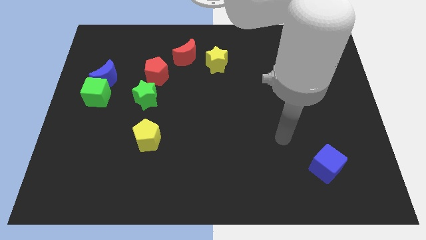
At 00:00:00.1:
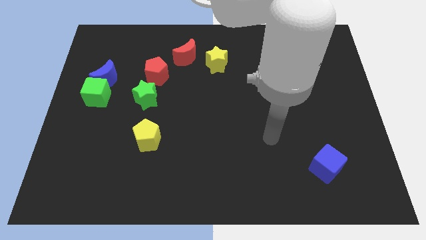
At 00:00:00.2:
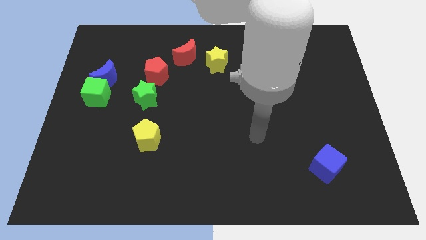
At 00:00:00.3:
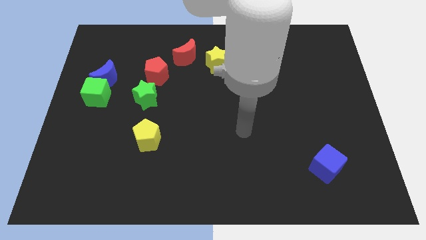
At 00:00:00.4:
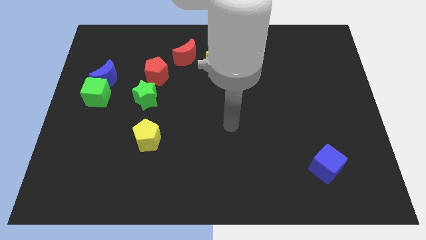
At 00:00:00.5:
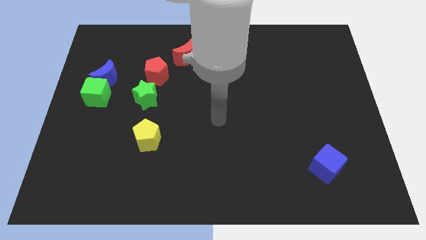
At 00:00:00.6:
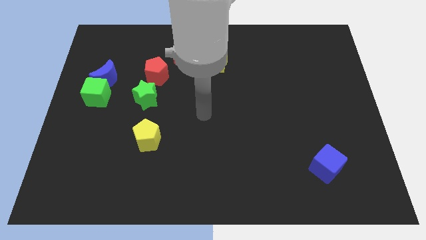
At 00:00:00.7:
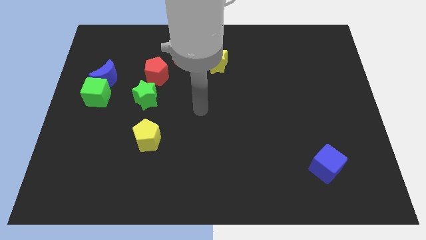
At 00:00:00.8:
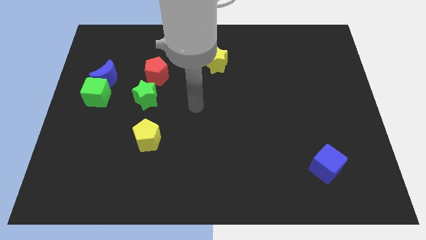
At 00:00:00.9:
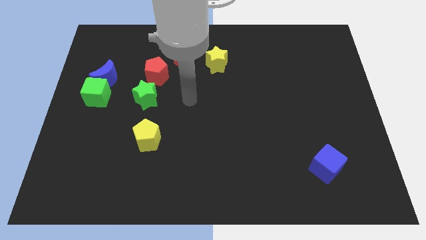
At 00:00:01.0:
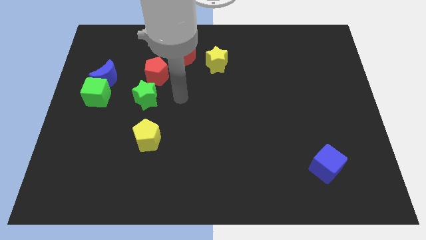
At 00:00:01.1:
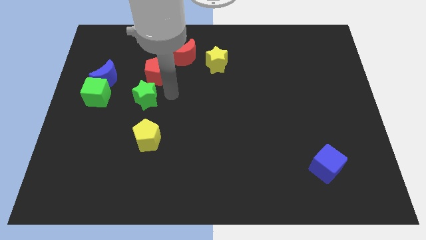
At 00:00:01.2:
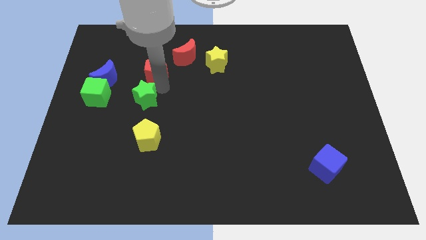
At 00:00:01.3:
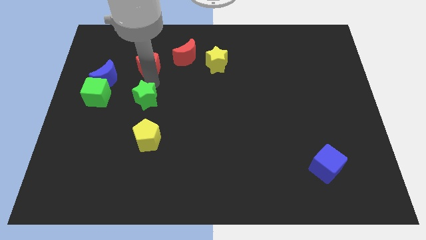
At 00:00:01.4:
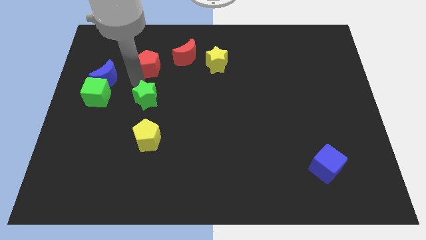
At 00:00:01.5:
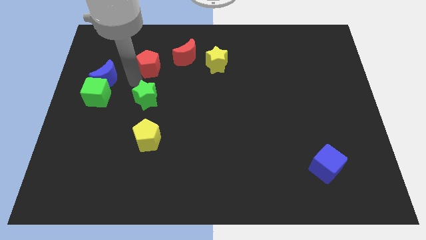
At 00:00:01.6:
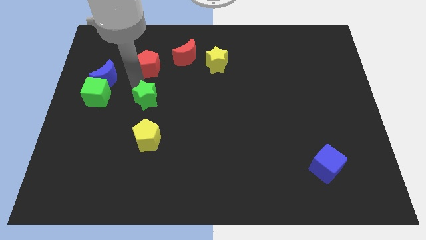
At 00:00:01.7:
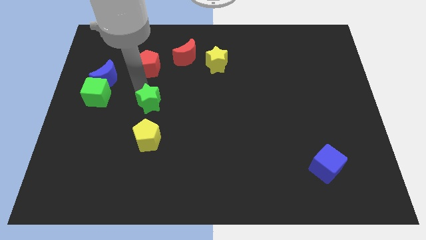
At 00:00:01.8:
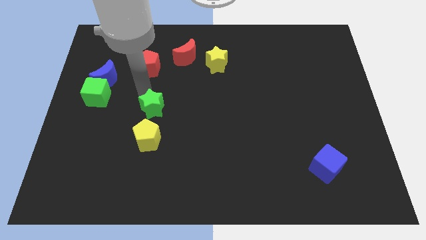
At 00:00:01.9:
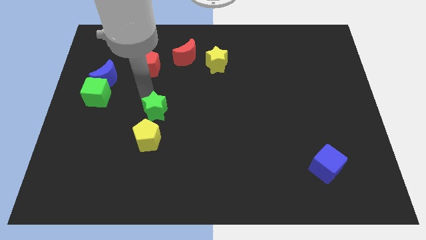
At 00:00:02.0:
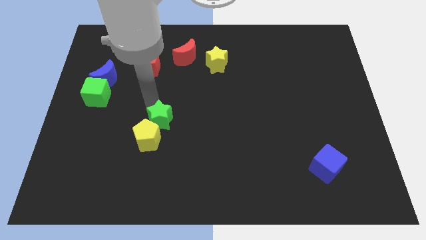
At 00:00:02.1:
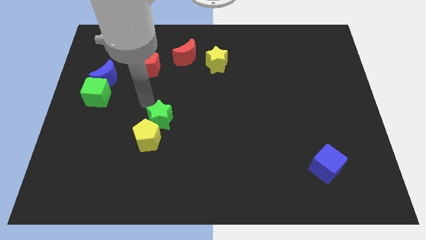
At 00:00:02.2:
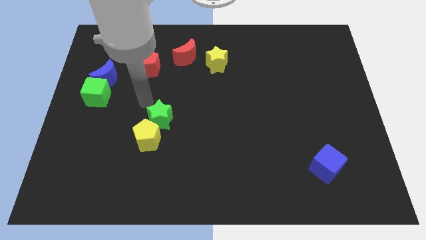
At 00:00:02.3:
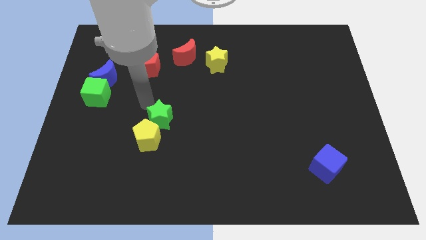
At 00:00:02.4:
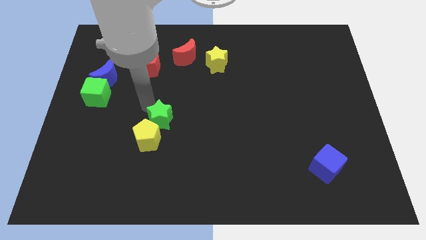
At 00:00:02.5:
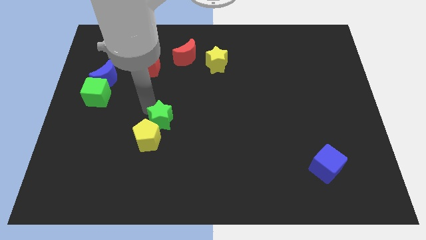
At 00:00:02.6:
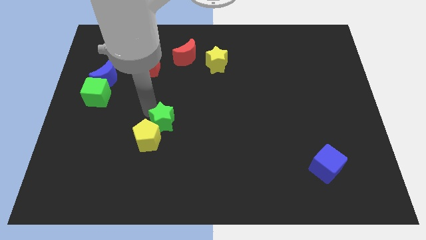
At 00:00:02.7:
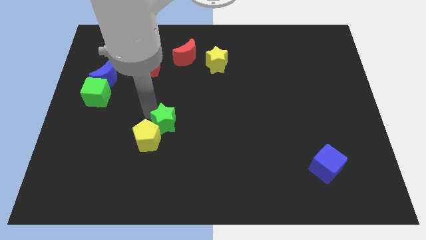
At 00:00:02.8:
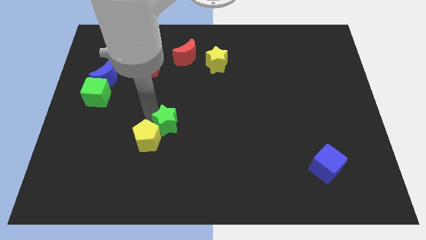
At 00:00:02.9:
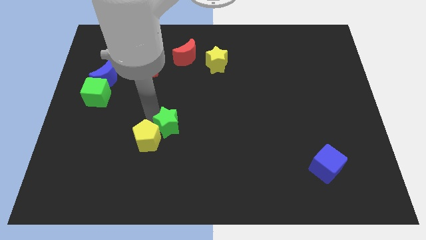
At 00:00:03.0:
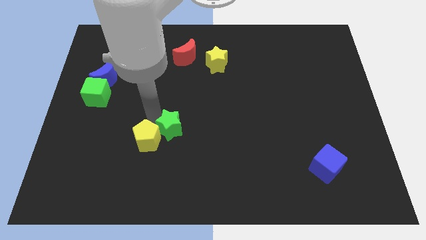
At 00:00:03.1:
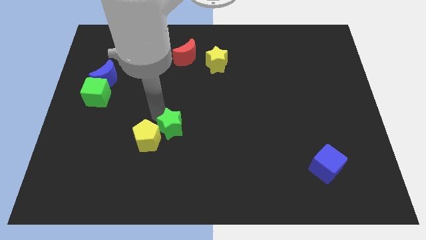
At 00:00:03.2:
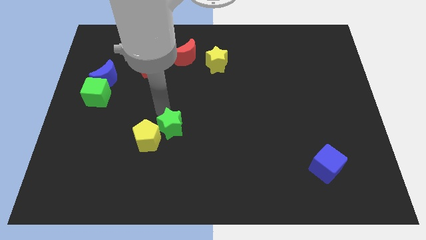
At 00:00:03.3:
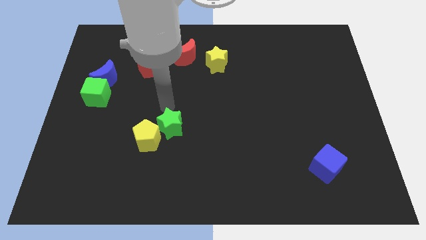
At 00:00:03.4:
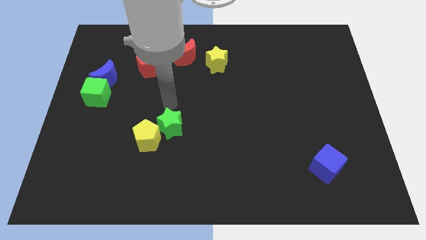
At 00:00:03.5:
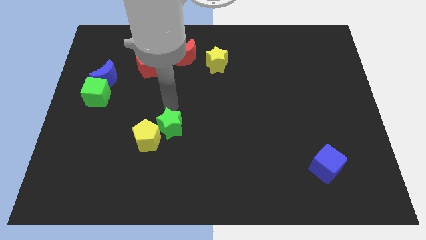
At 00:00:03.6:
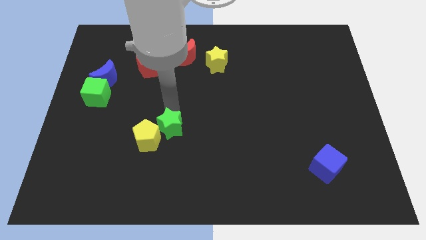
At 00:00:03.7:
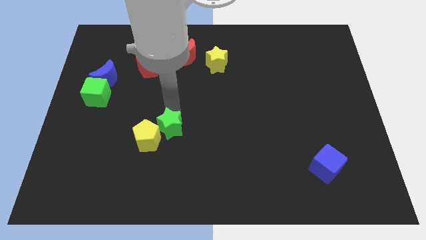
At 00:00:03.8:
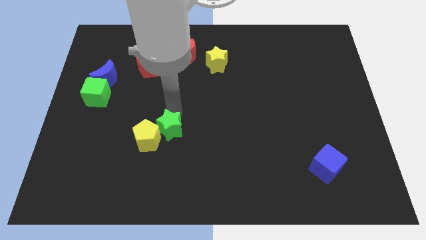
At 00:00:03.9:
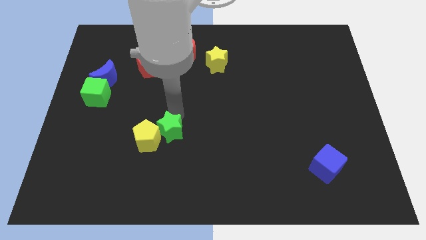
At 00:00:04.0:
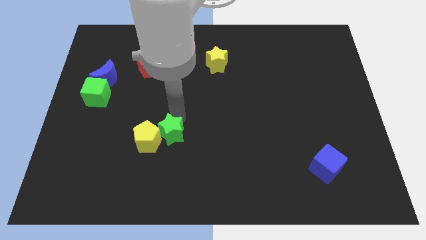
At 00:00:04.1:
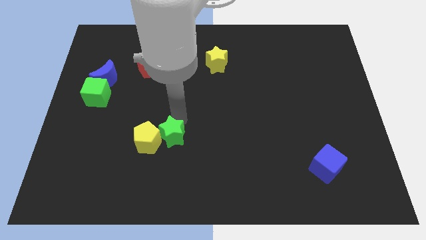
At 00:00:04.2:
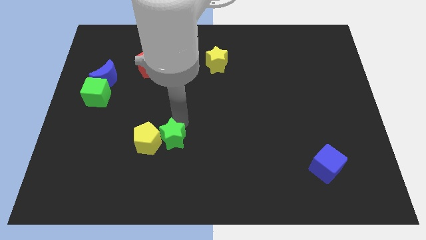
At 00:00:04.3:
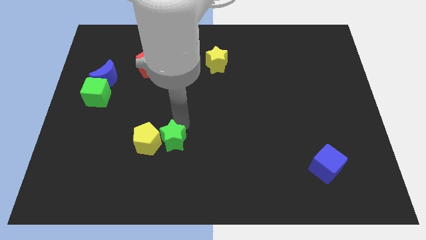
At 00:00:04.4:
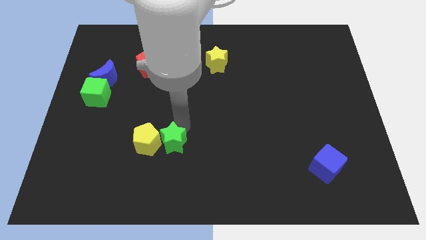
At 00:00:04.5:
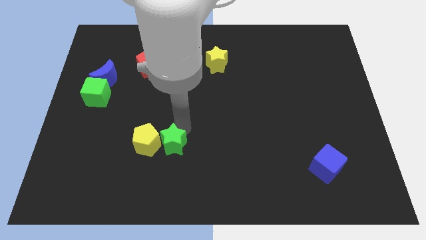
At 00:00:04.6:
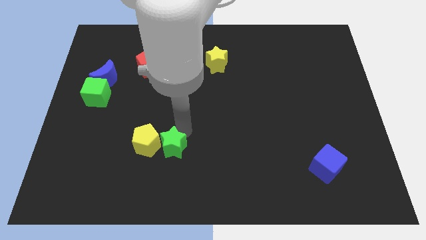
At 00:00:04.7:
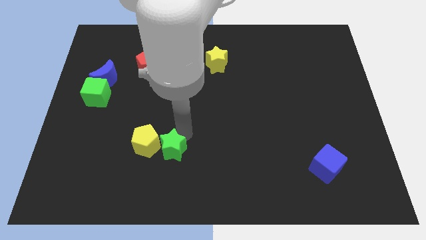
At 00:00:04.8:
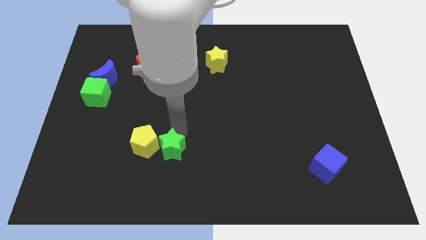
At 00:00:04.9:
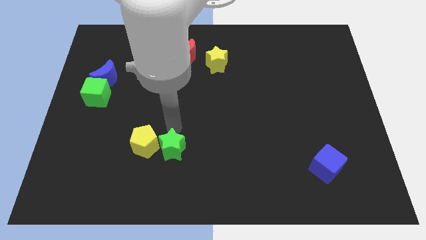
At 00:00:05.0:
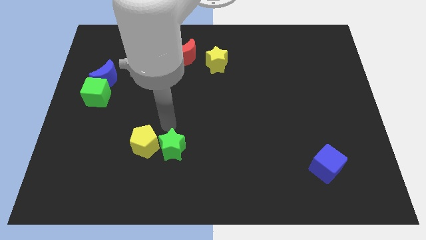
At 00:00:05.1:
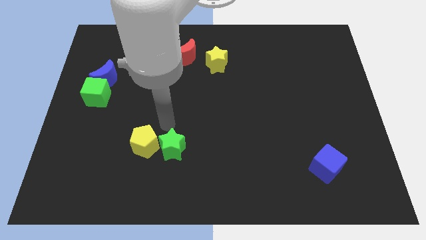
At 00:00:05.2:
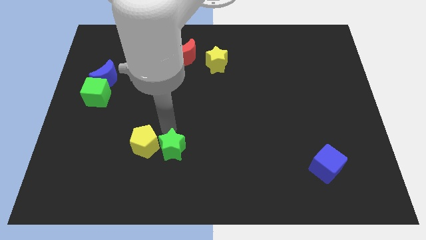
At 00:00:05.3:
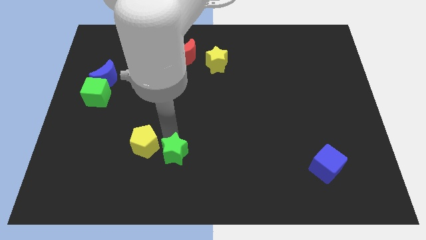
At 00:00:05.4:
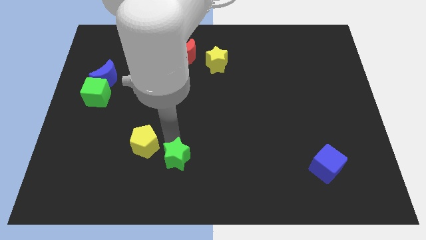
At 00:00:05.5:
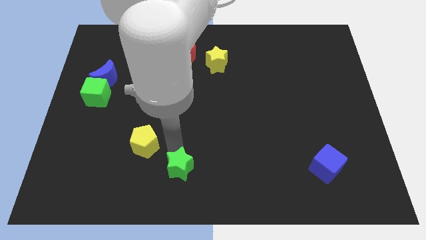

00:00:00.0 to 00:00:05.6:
put the green star to the bottom side

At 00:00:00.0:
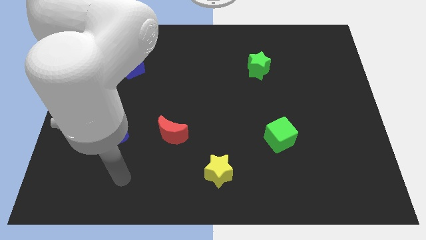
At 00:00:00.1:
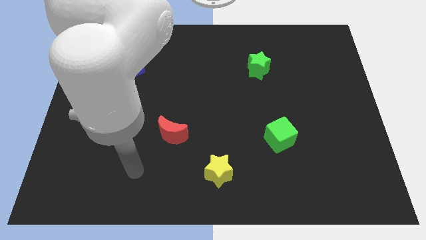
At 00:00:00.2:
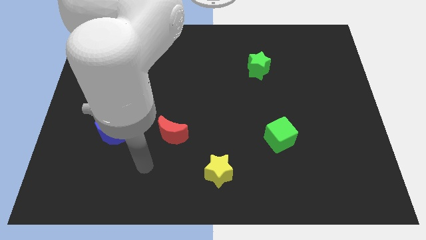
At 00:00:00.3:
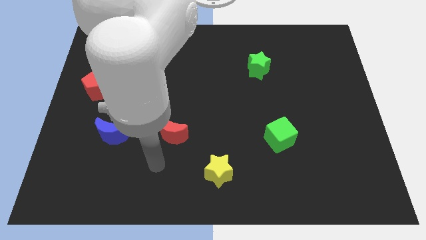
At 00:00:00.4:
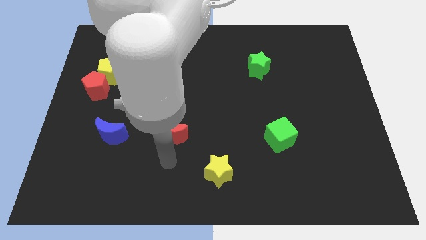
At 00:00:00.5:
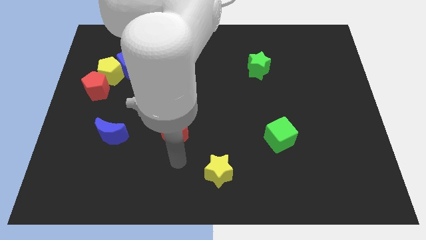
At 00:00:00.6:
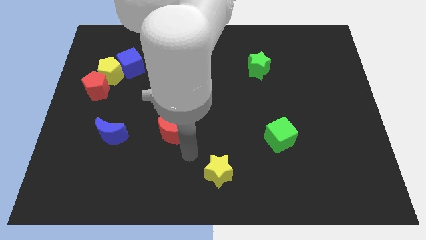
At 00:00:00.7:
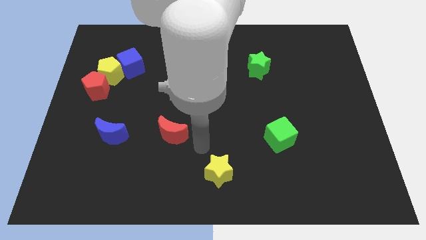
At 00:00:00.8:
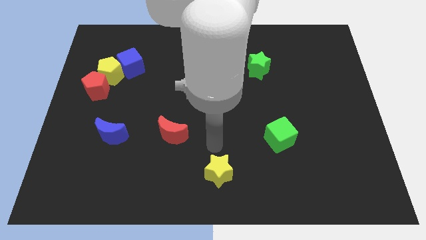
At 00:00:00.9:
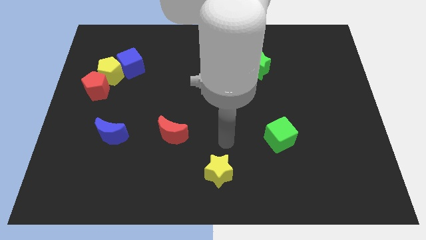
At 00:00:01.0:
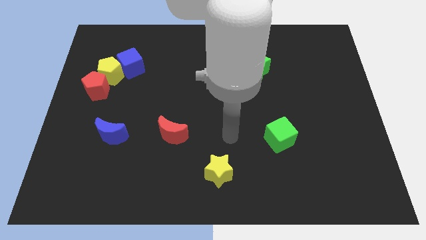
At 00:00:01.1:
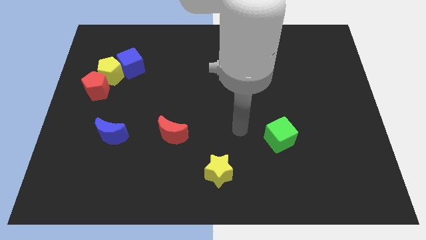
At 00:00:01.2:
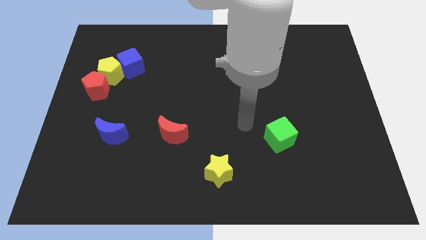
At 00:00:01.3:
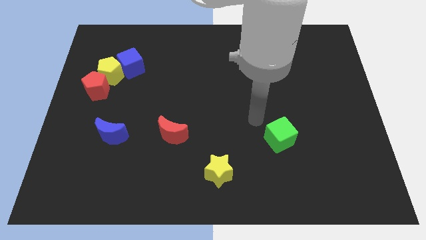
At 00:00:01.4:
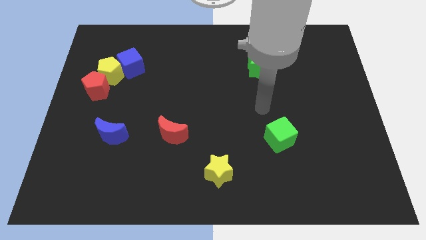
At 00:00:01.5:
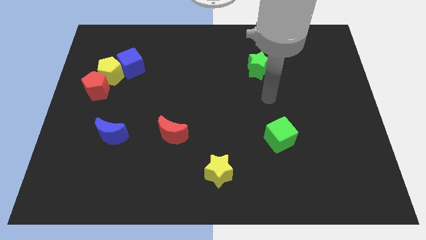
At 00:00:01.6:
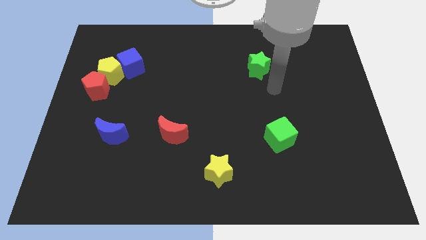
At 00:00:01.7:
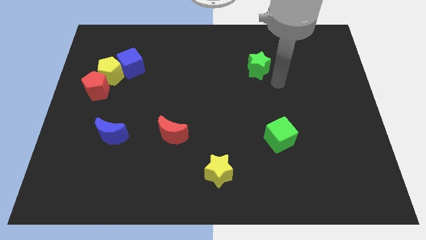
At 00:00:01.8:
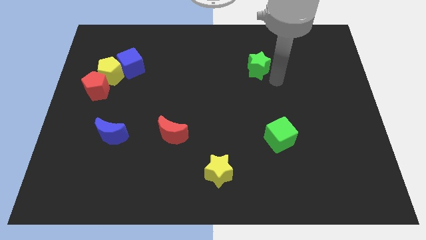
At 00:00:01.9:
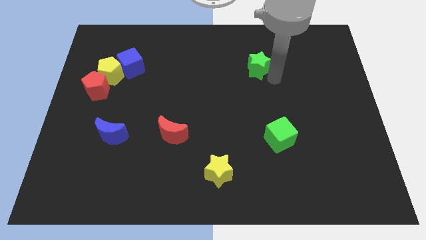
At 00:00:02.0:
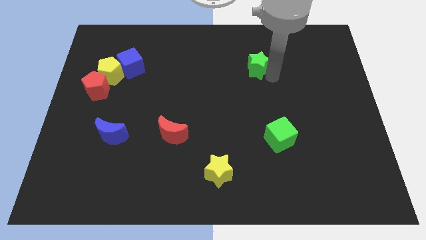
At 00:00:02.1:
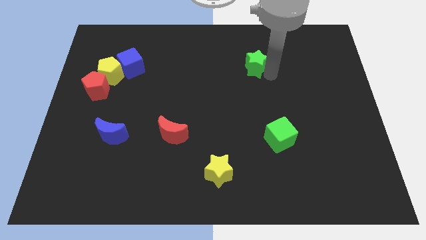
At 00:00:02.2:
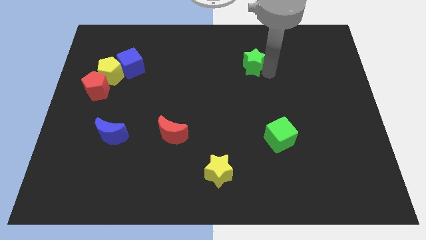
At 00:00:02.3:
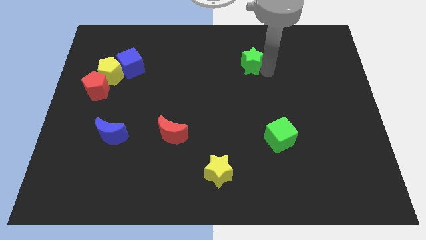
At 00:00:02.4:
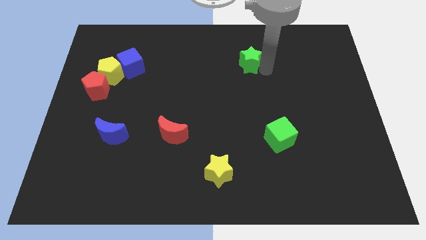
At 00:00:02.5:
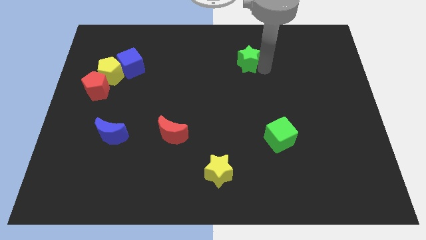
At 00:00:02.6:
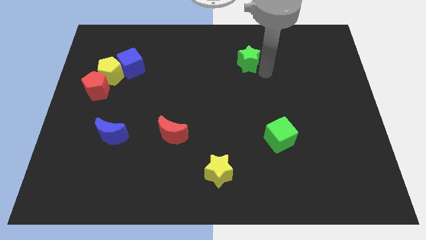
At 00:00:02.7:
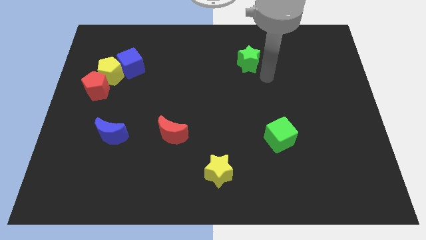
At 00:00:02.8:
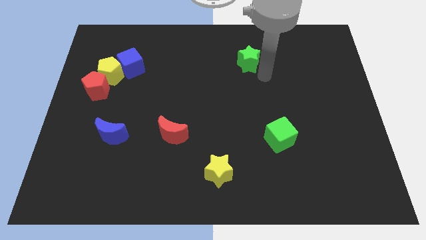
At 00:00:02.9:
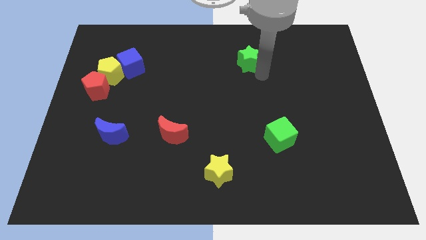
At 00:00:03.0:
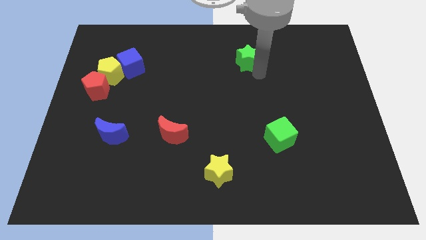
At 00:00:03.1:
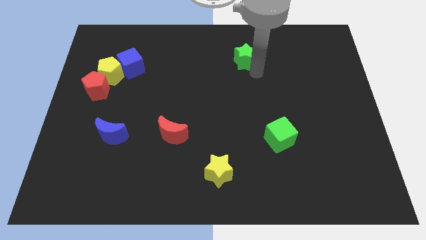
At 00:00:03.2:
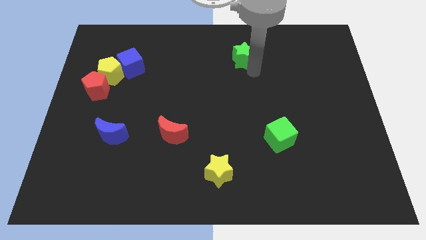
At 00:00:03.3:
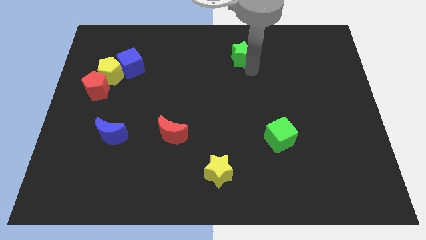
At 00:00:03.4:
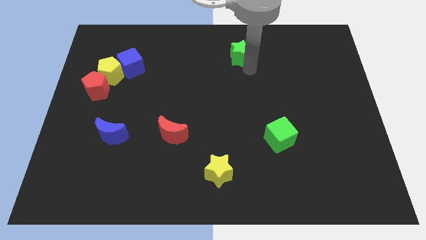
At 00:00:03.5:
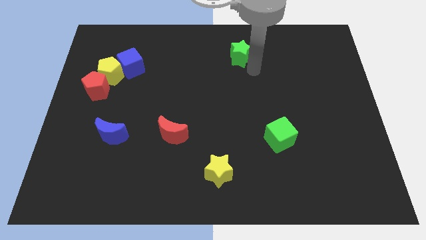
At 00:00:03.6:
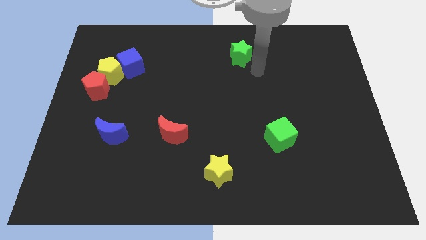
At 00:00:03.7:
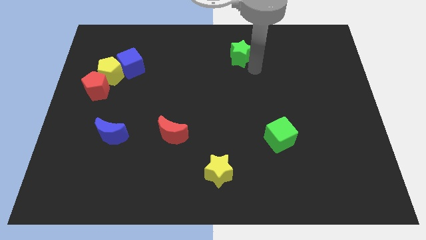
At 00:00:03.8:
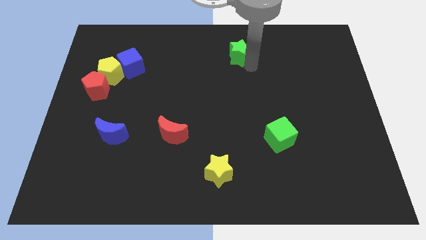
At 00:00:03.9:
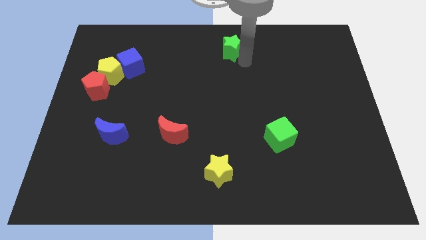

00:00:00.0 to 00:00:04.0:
move the green star to the towards your base
